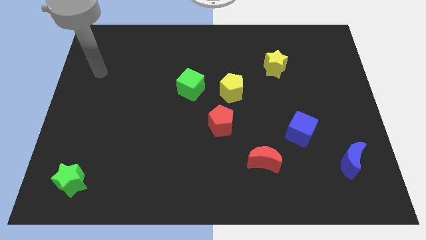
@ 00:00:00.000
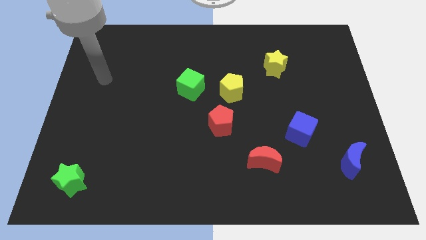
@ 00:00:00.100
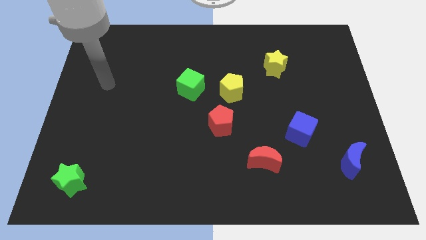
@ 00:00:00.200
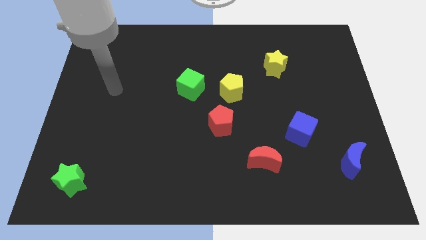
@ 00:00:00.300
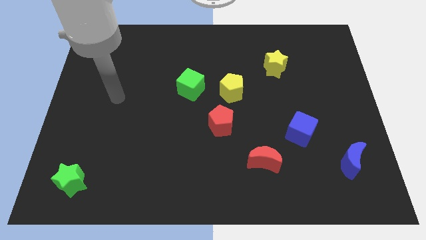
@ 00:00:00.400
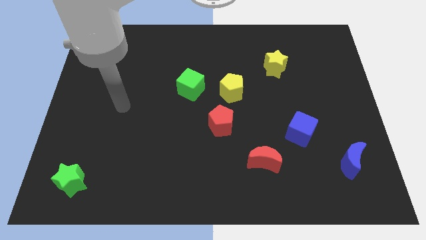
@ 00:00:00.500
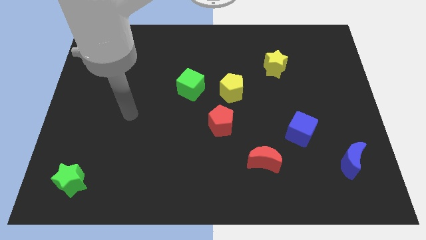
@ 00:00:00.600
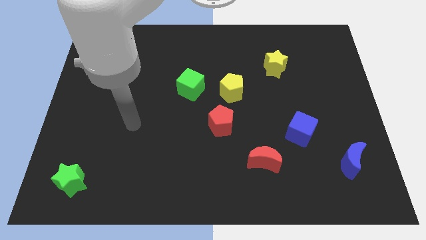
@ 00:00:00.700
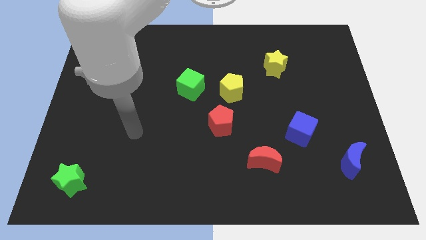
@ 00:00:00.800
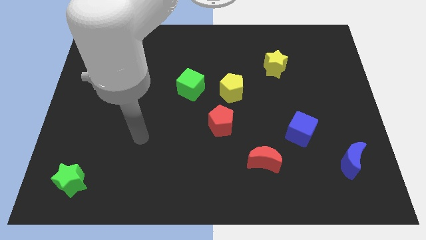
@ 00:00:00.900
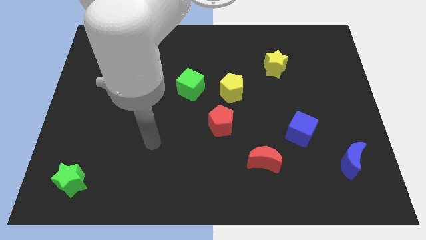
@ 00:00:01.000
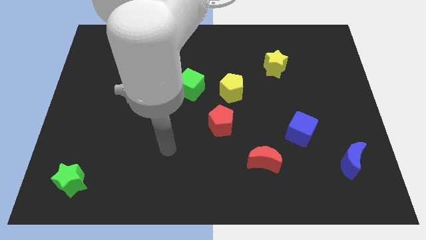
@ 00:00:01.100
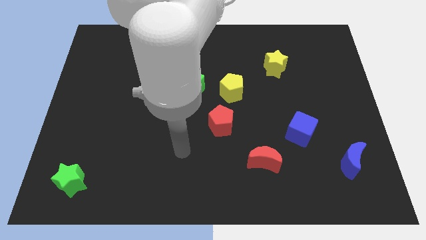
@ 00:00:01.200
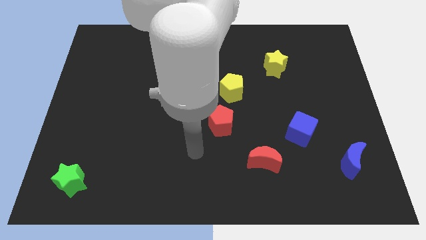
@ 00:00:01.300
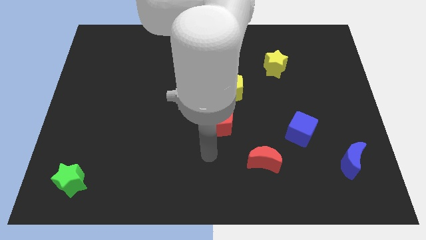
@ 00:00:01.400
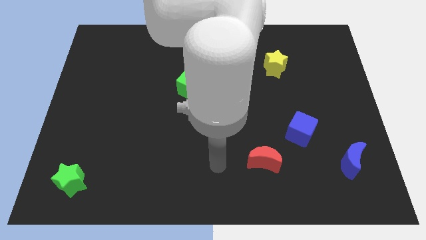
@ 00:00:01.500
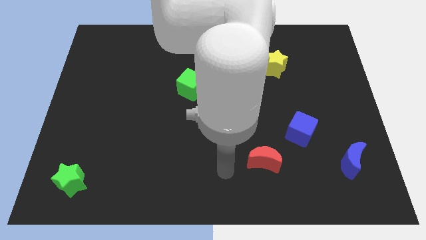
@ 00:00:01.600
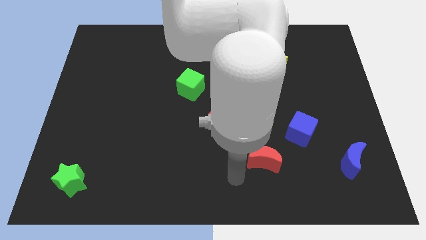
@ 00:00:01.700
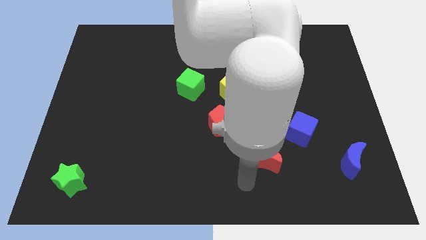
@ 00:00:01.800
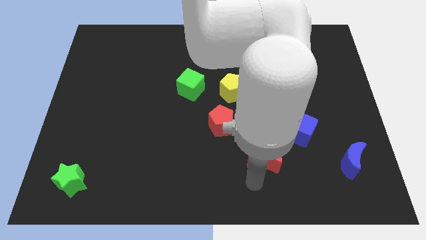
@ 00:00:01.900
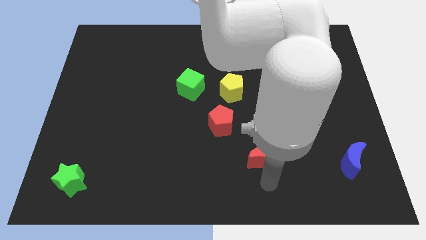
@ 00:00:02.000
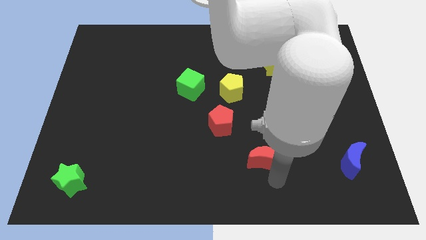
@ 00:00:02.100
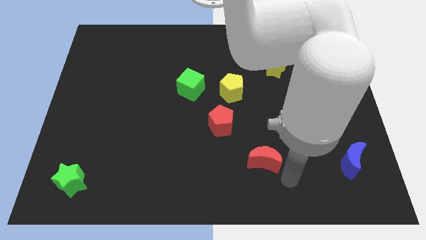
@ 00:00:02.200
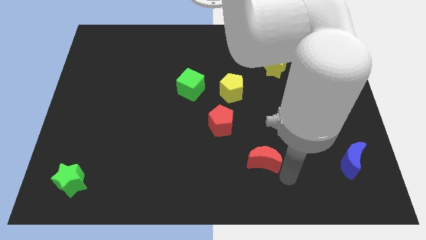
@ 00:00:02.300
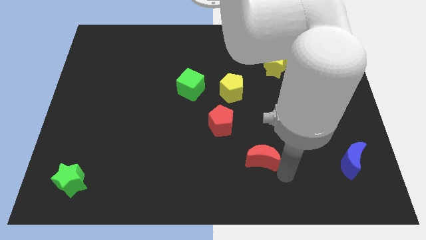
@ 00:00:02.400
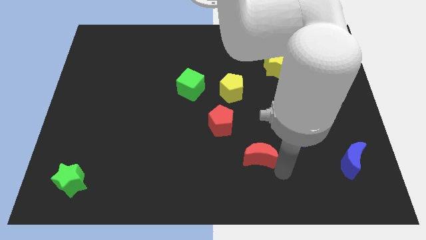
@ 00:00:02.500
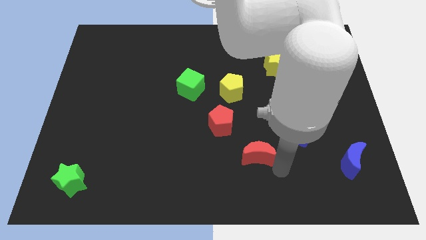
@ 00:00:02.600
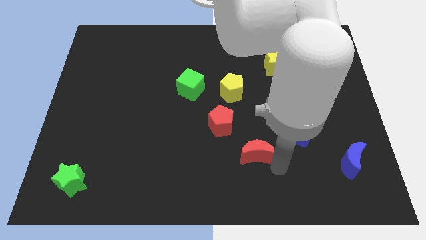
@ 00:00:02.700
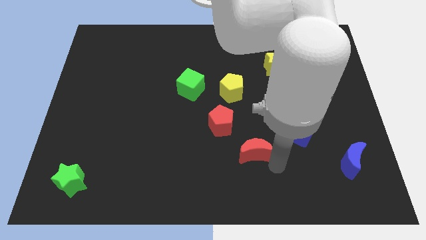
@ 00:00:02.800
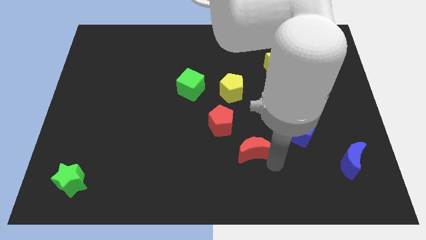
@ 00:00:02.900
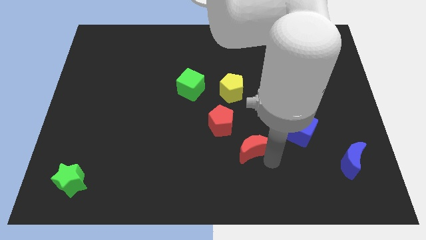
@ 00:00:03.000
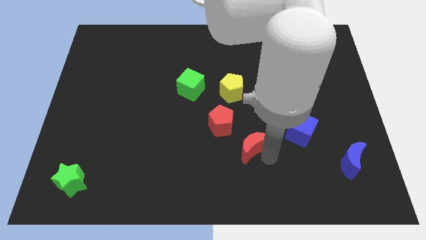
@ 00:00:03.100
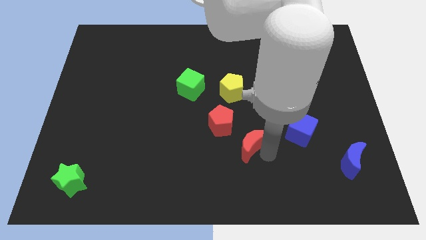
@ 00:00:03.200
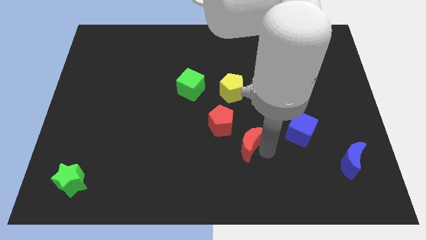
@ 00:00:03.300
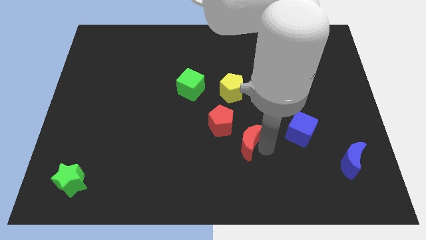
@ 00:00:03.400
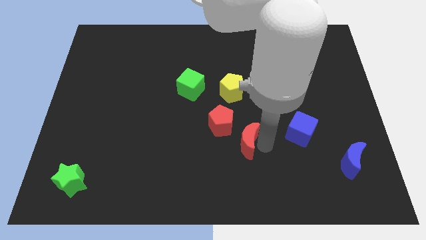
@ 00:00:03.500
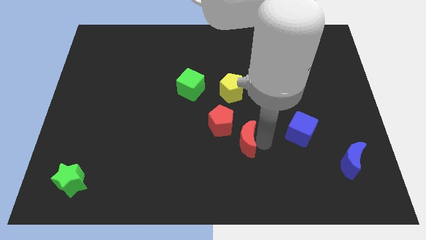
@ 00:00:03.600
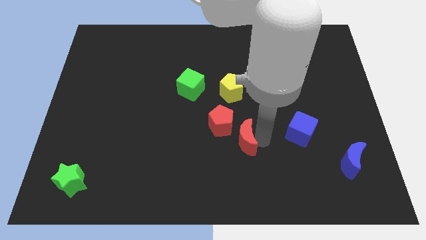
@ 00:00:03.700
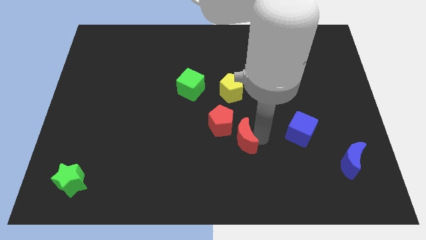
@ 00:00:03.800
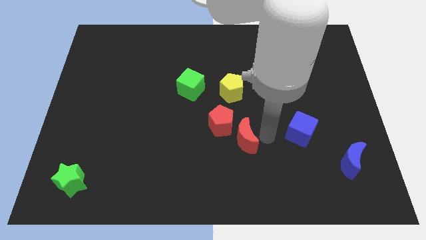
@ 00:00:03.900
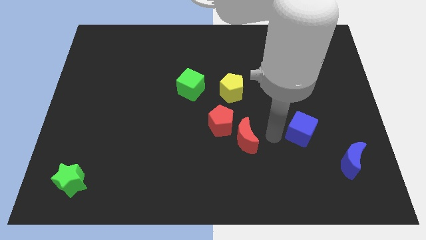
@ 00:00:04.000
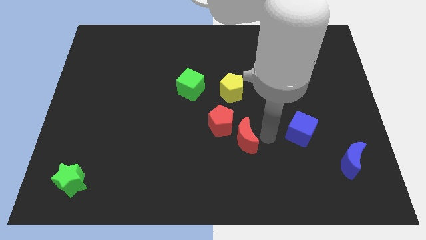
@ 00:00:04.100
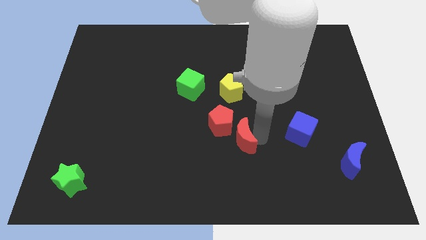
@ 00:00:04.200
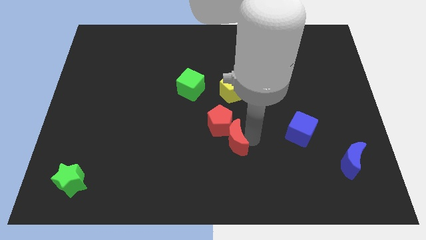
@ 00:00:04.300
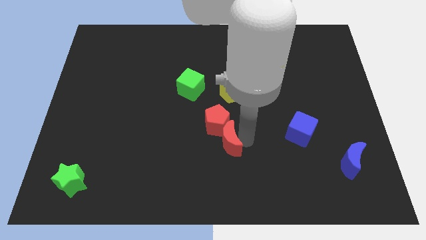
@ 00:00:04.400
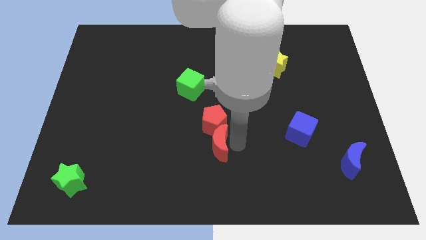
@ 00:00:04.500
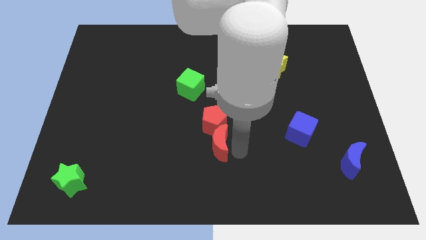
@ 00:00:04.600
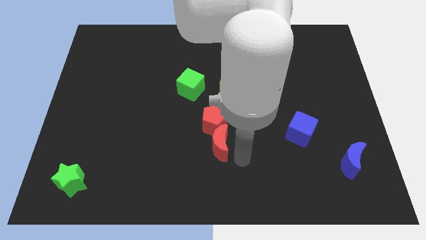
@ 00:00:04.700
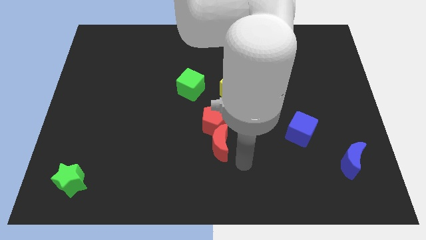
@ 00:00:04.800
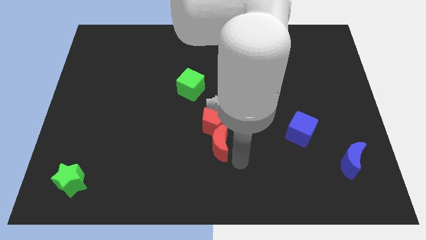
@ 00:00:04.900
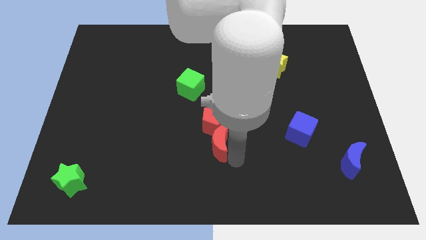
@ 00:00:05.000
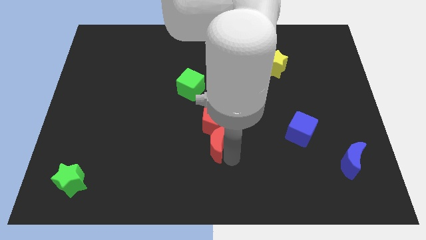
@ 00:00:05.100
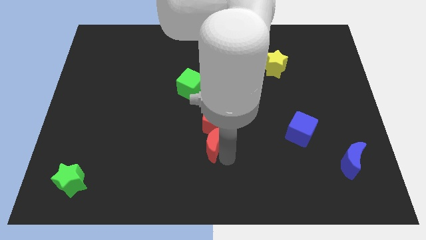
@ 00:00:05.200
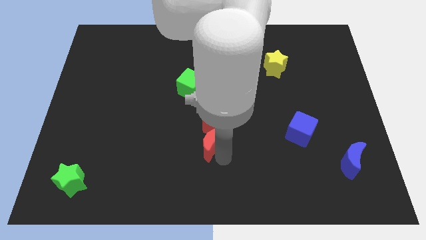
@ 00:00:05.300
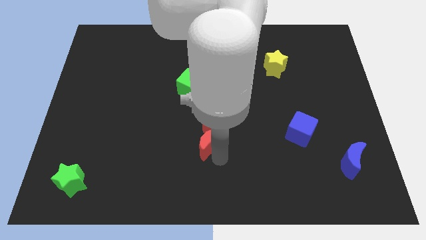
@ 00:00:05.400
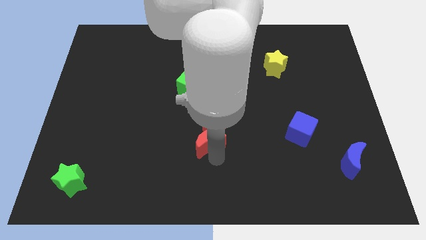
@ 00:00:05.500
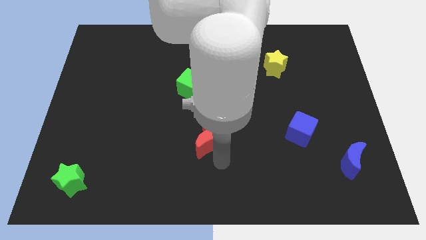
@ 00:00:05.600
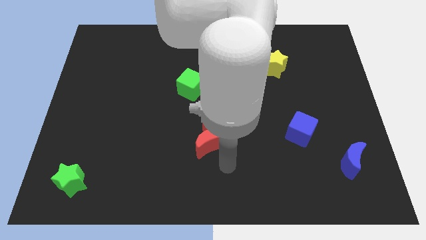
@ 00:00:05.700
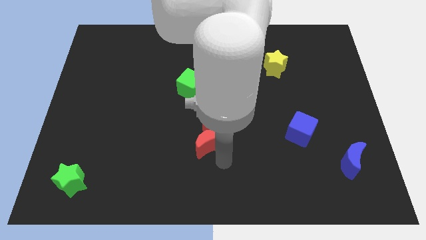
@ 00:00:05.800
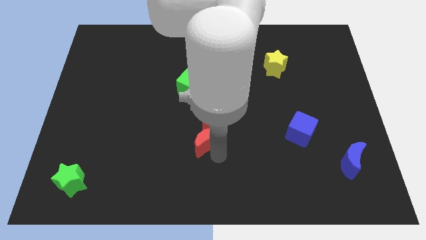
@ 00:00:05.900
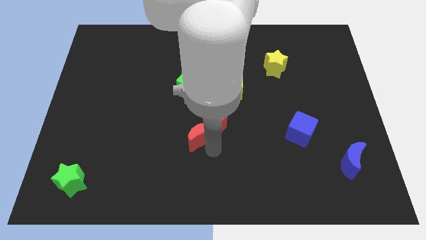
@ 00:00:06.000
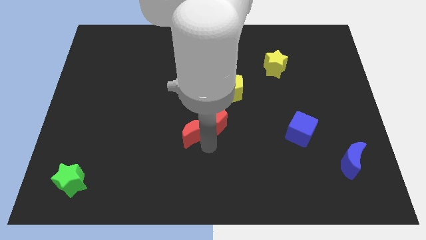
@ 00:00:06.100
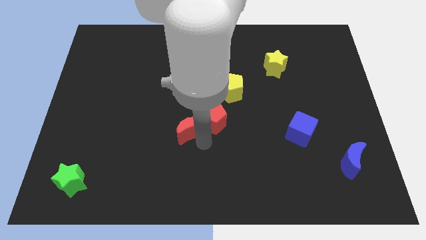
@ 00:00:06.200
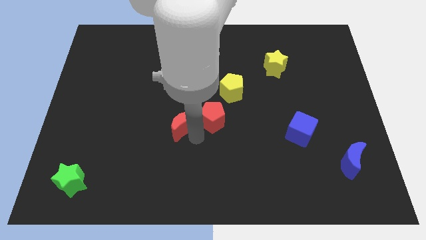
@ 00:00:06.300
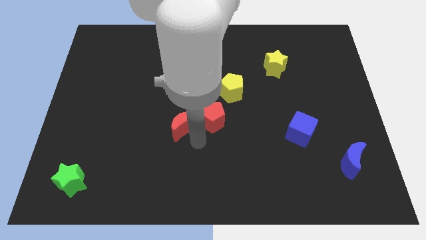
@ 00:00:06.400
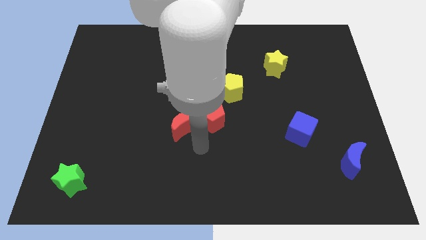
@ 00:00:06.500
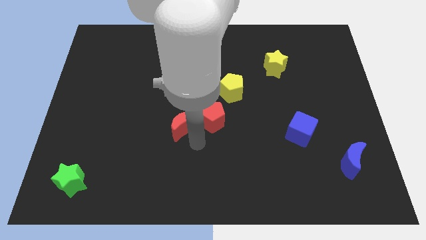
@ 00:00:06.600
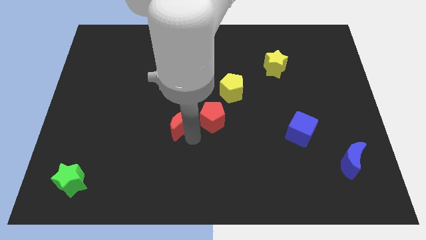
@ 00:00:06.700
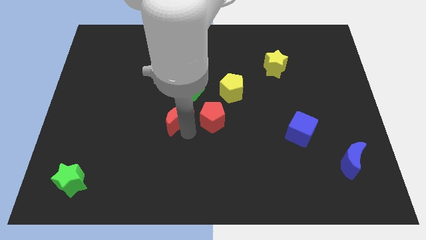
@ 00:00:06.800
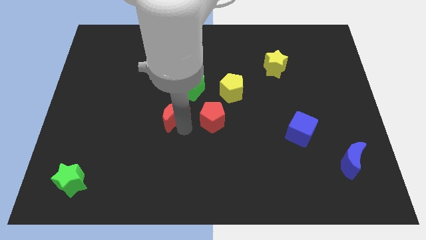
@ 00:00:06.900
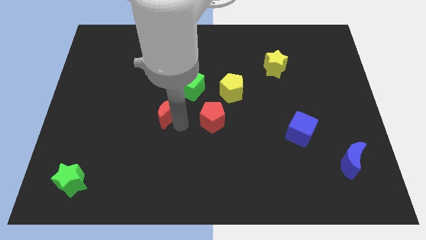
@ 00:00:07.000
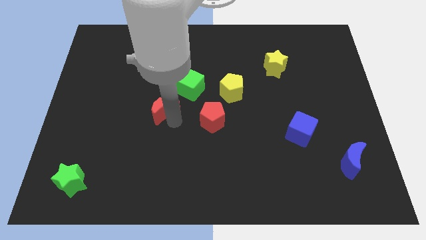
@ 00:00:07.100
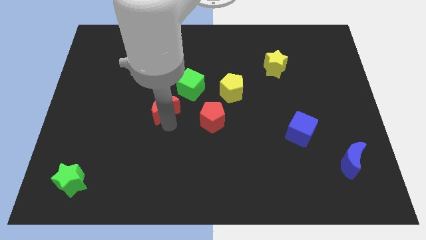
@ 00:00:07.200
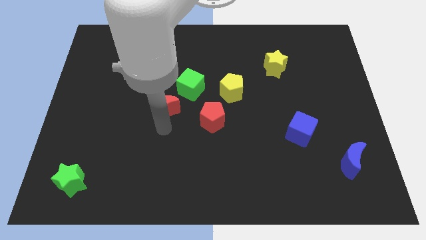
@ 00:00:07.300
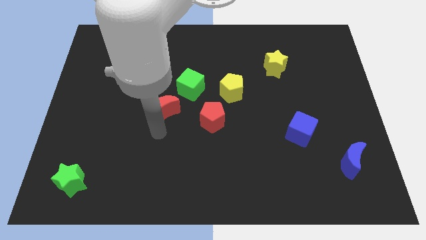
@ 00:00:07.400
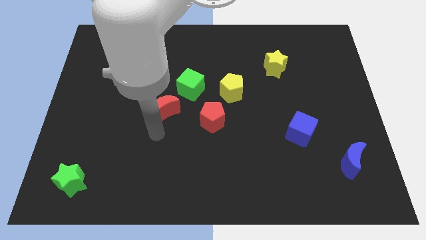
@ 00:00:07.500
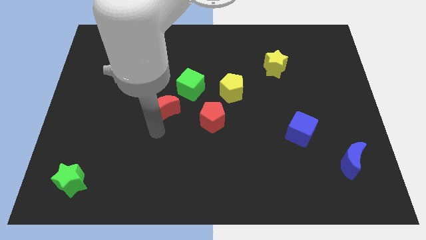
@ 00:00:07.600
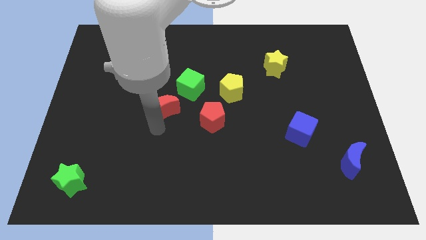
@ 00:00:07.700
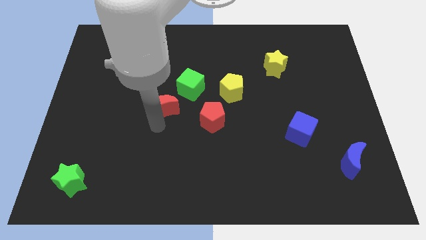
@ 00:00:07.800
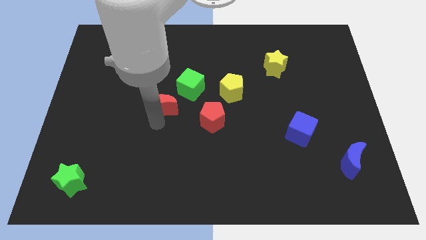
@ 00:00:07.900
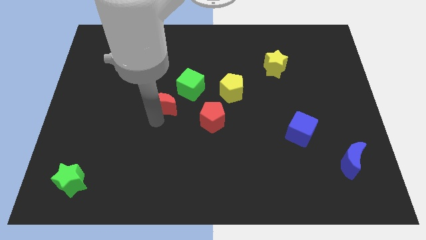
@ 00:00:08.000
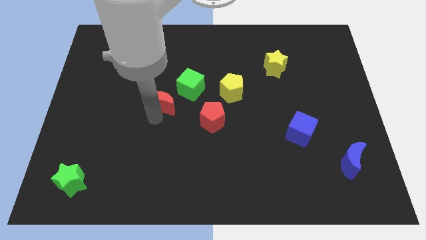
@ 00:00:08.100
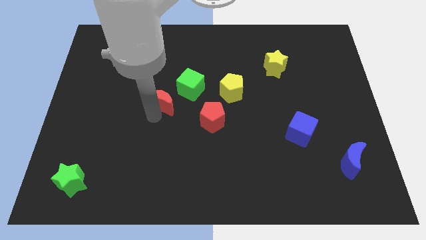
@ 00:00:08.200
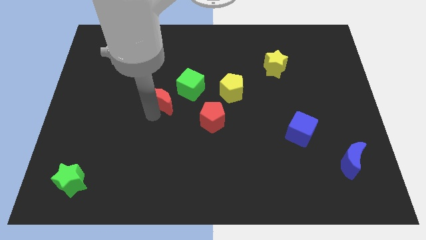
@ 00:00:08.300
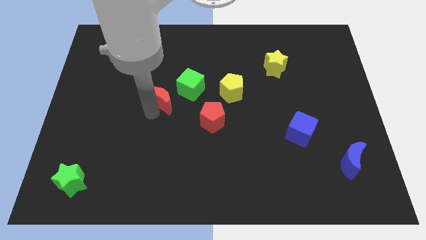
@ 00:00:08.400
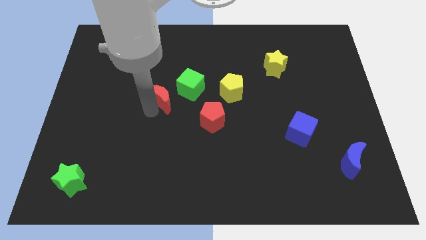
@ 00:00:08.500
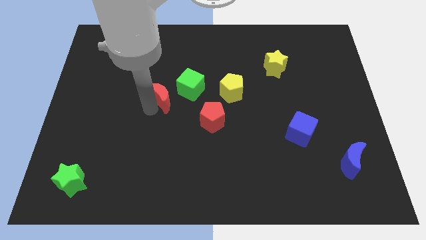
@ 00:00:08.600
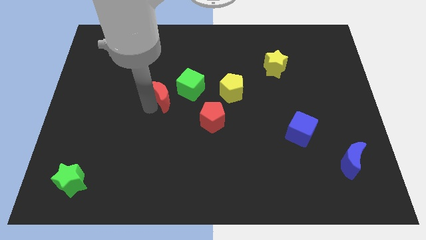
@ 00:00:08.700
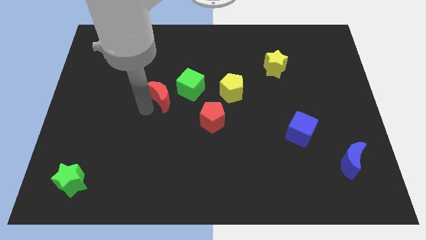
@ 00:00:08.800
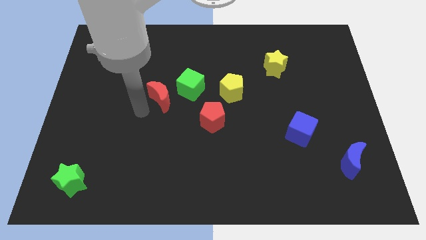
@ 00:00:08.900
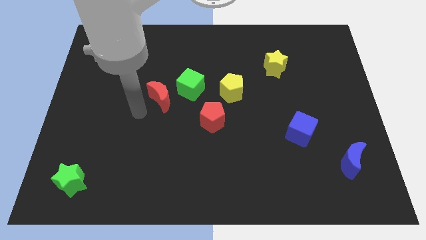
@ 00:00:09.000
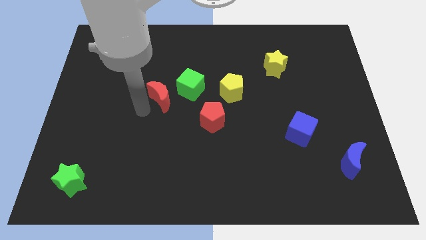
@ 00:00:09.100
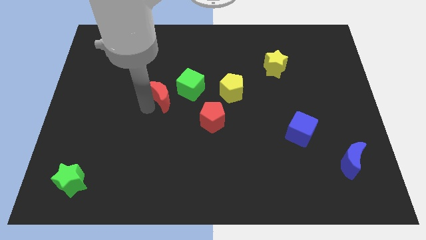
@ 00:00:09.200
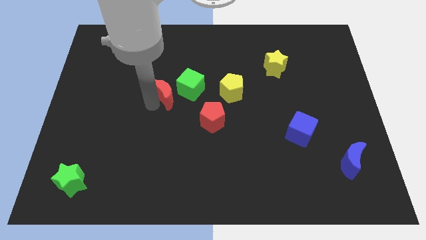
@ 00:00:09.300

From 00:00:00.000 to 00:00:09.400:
push the red moon to the left side of the yellow pentagon
